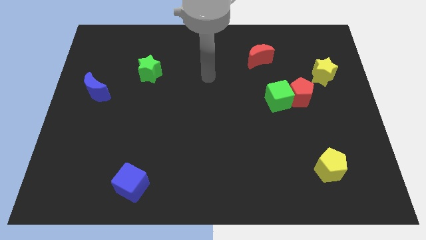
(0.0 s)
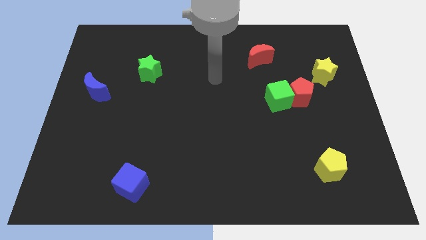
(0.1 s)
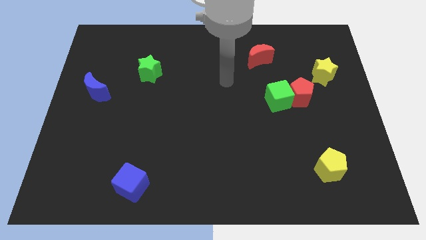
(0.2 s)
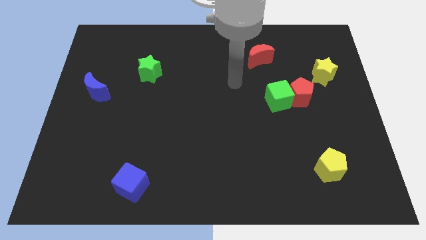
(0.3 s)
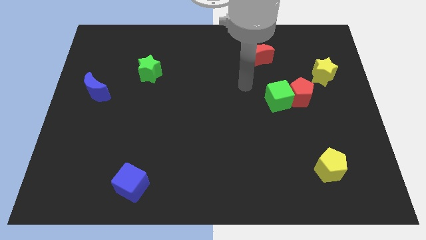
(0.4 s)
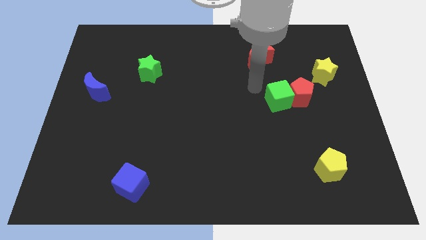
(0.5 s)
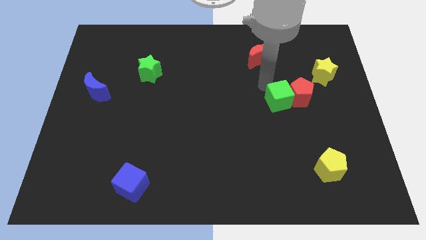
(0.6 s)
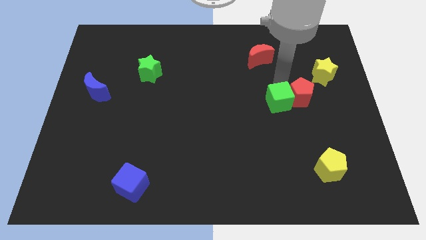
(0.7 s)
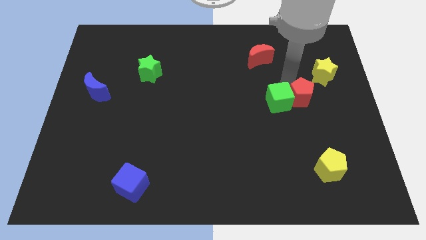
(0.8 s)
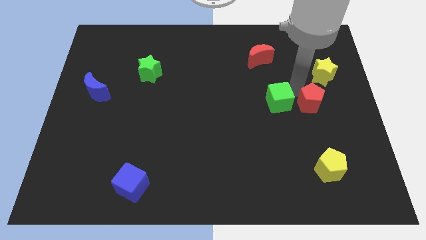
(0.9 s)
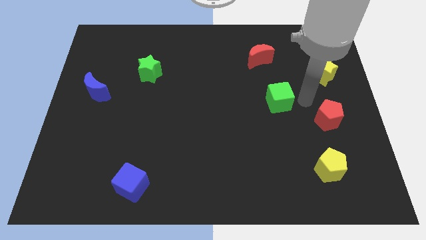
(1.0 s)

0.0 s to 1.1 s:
move the green cube away from the red pentagon

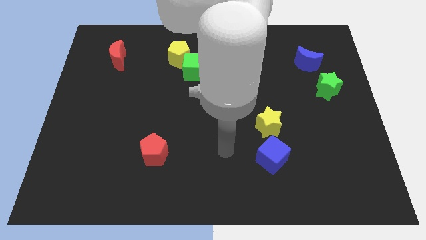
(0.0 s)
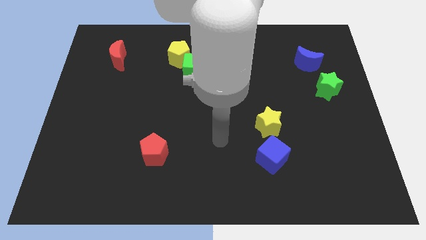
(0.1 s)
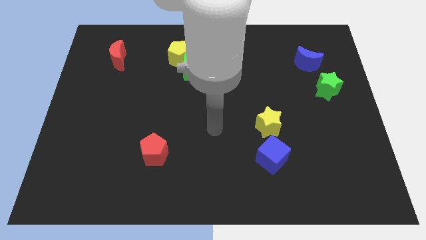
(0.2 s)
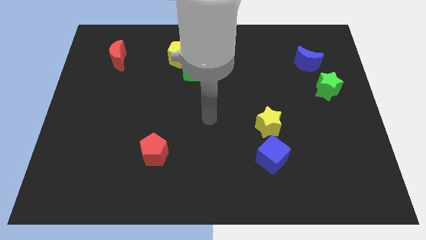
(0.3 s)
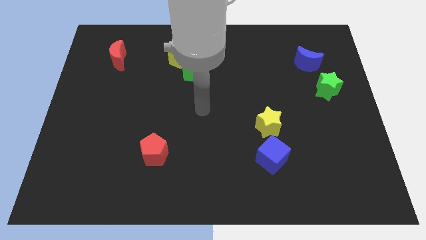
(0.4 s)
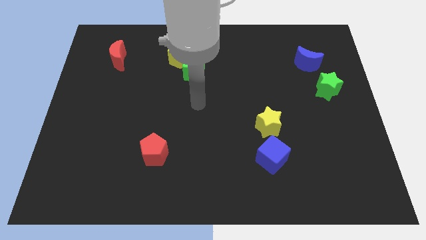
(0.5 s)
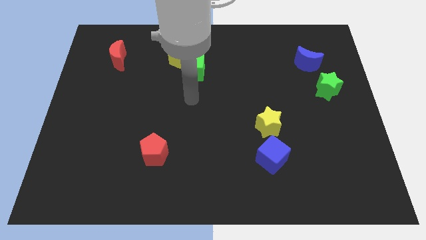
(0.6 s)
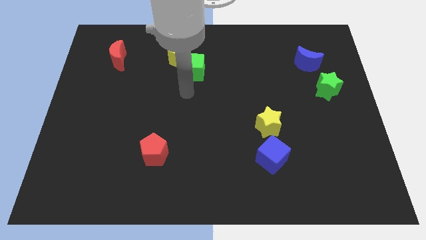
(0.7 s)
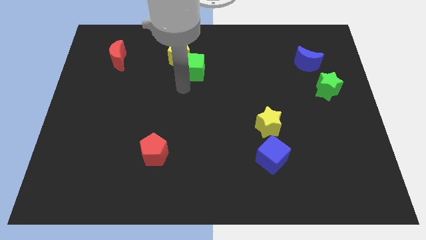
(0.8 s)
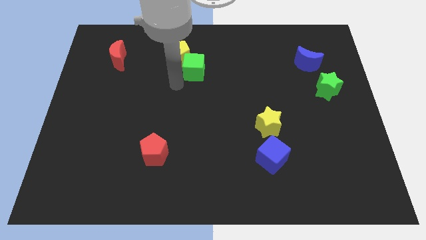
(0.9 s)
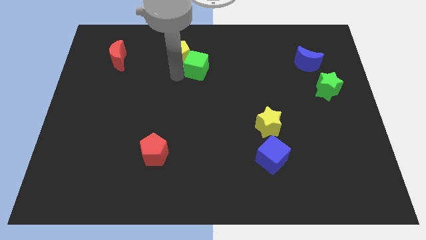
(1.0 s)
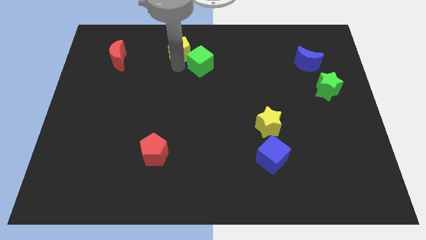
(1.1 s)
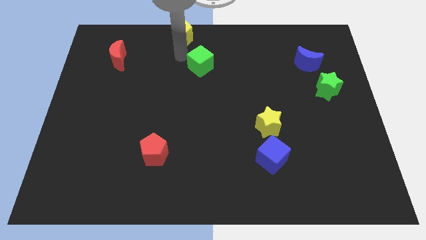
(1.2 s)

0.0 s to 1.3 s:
pull the green cube apart from the yellow pentagon

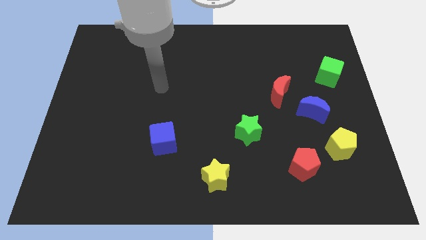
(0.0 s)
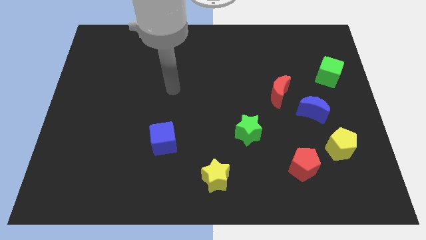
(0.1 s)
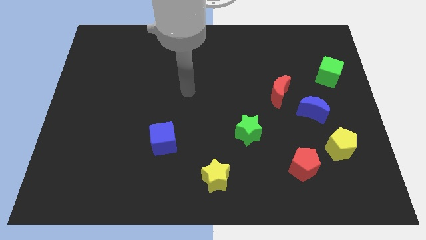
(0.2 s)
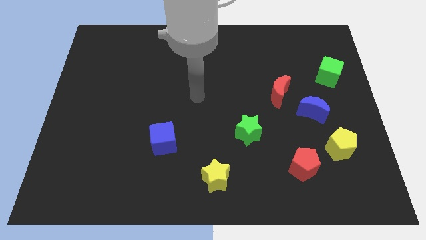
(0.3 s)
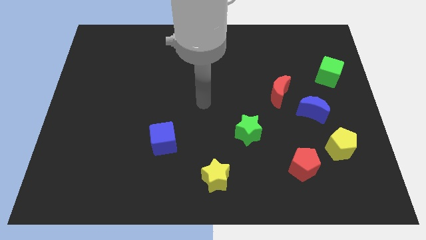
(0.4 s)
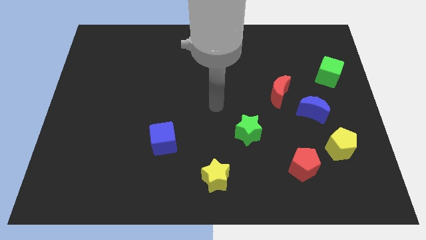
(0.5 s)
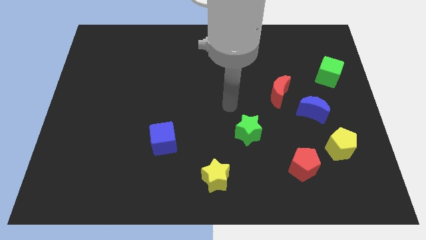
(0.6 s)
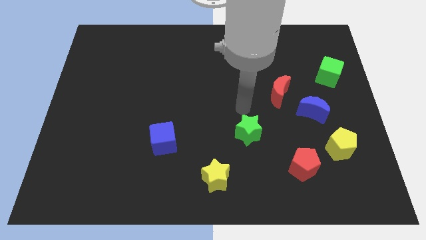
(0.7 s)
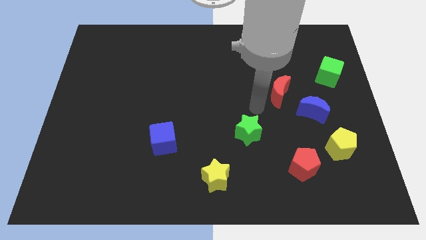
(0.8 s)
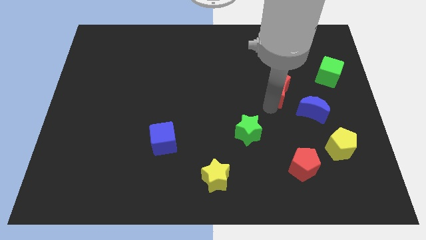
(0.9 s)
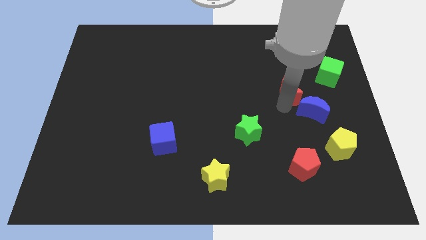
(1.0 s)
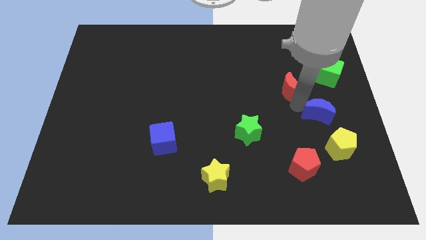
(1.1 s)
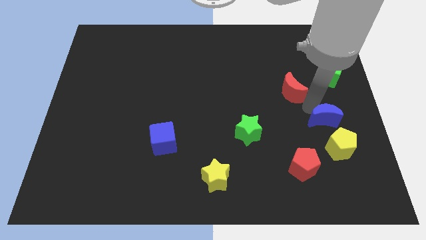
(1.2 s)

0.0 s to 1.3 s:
pull the red moon apart from the blue moon

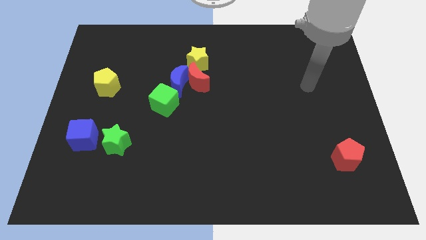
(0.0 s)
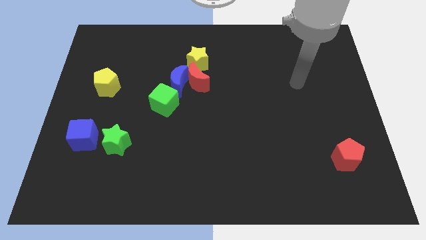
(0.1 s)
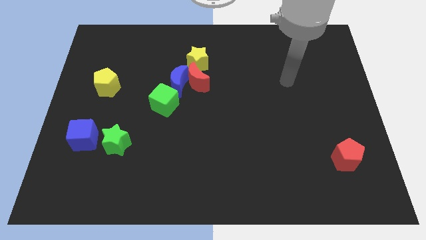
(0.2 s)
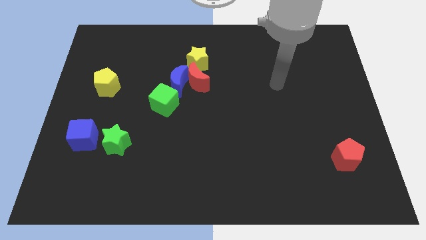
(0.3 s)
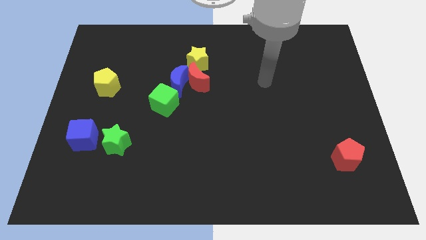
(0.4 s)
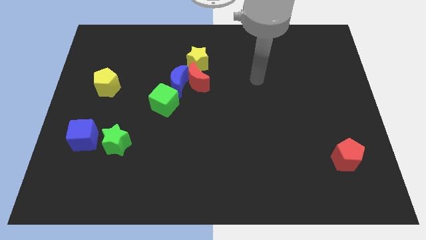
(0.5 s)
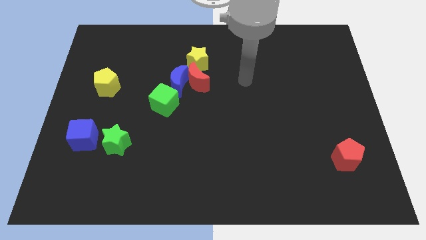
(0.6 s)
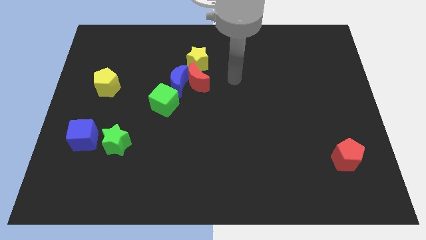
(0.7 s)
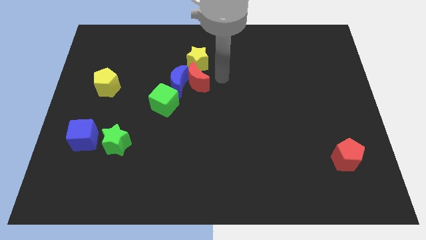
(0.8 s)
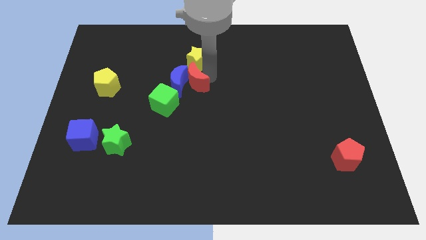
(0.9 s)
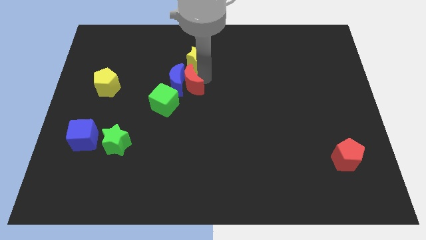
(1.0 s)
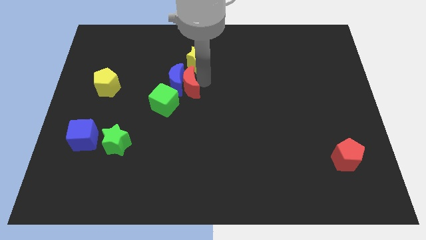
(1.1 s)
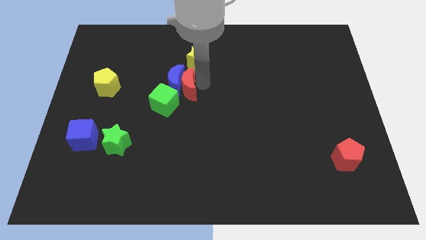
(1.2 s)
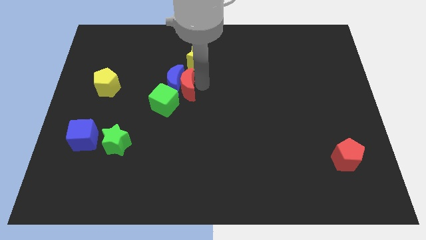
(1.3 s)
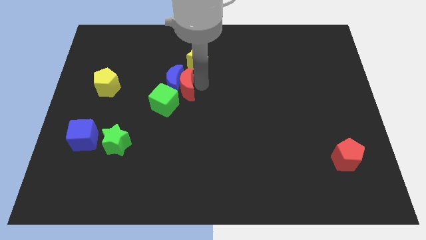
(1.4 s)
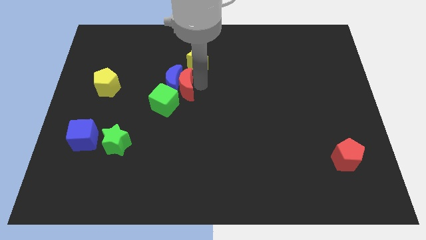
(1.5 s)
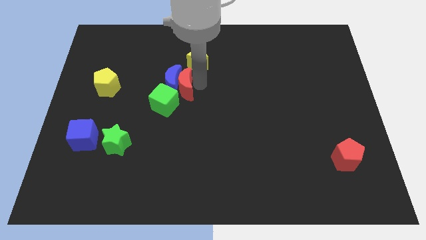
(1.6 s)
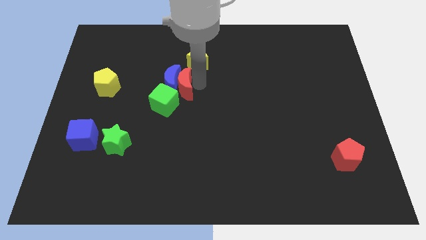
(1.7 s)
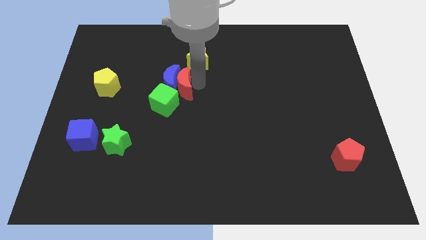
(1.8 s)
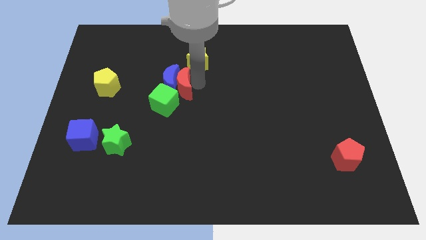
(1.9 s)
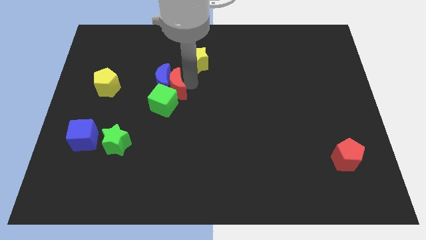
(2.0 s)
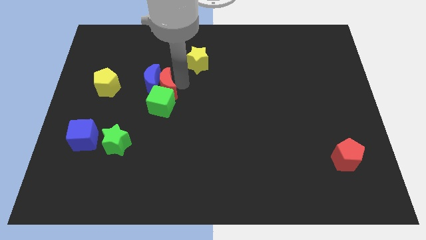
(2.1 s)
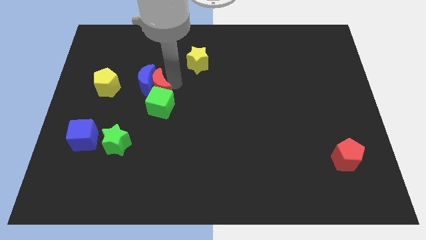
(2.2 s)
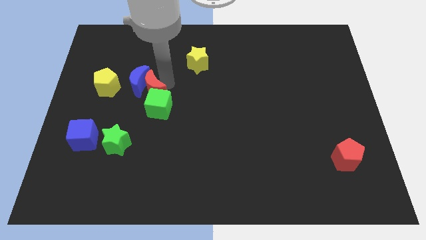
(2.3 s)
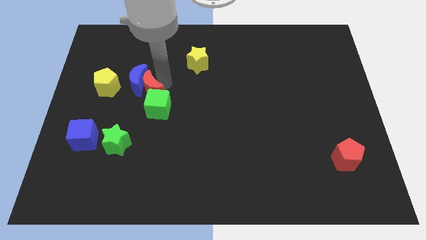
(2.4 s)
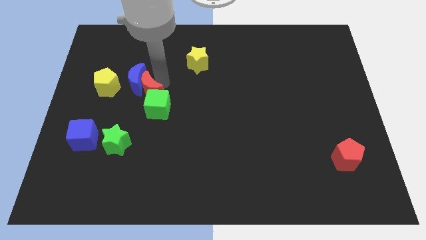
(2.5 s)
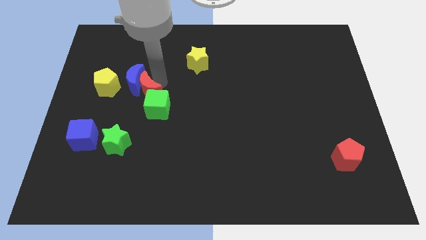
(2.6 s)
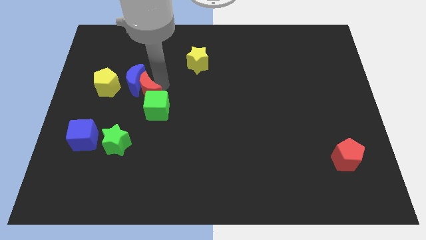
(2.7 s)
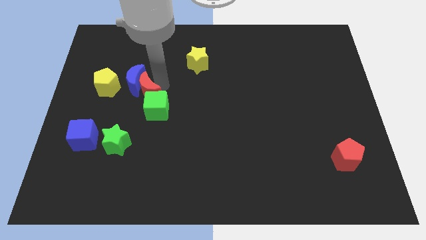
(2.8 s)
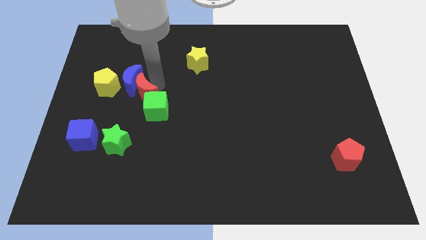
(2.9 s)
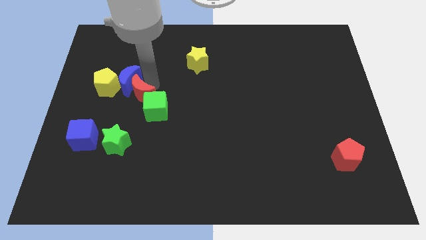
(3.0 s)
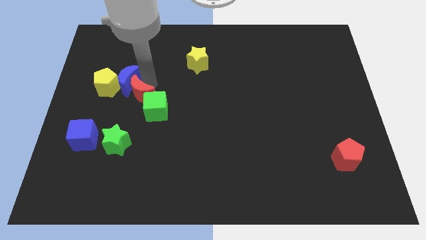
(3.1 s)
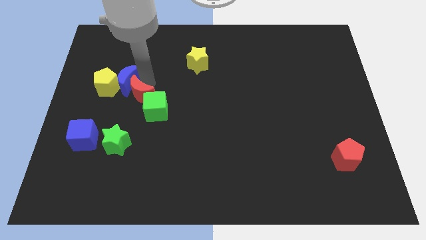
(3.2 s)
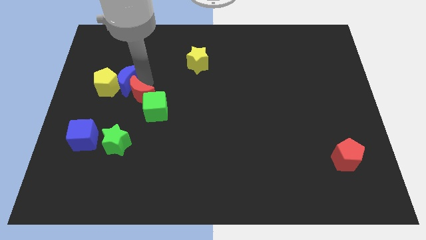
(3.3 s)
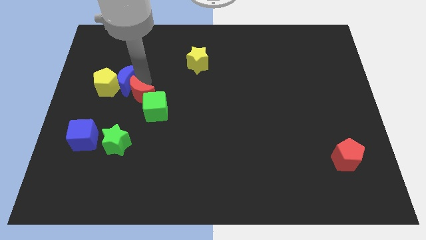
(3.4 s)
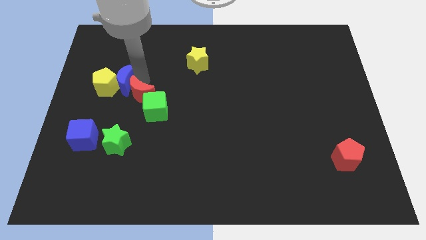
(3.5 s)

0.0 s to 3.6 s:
pull the blue moon apart from the red moon, green cube, and yellow star

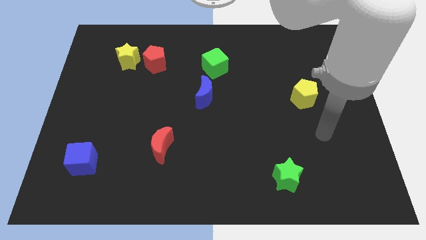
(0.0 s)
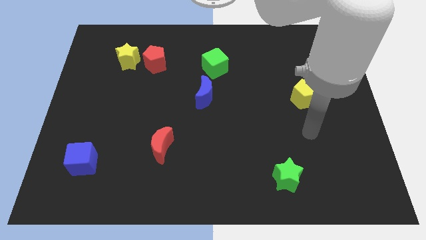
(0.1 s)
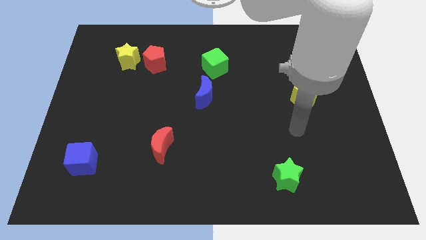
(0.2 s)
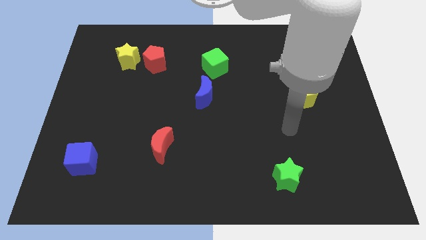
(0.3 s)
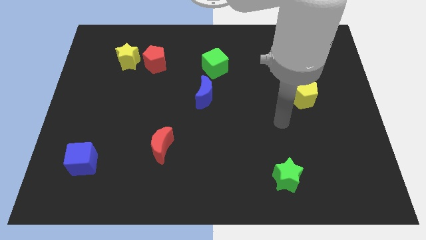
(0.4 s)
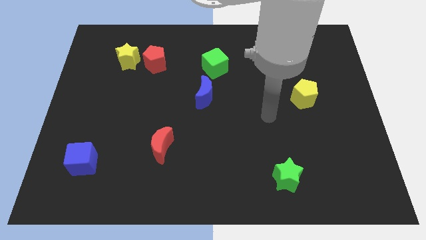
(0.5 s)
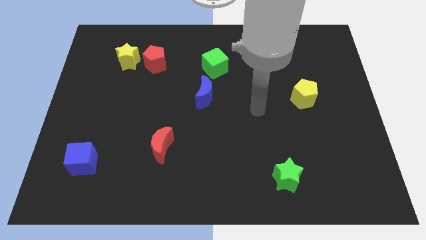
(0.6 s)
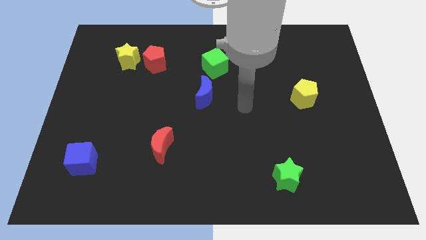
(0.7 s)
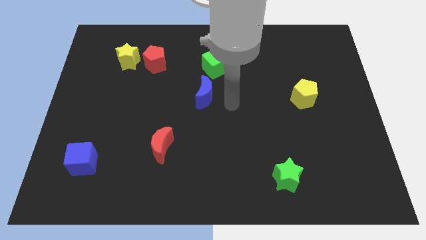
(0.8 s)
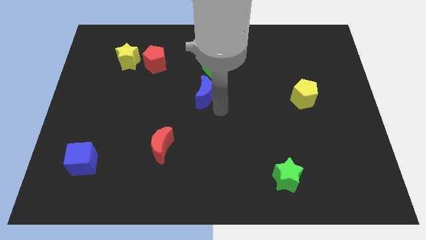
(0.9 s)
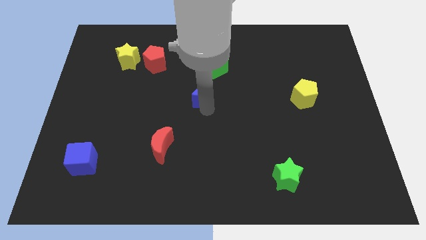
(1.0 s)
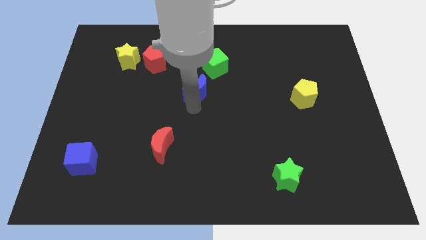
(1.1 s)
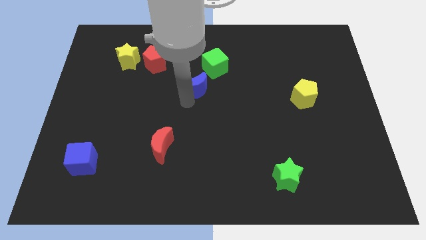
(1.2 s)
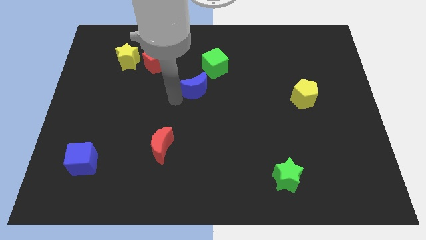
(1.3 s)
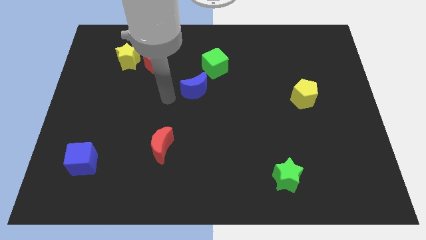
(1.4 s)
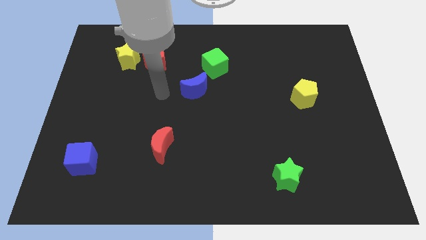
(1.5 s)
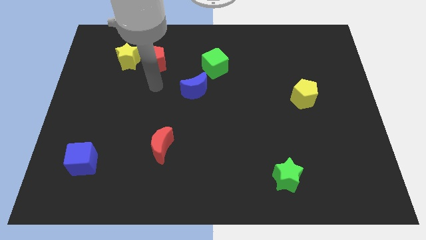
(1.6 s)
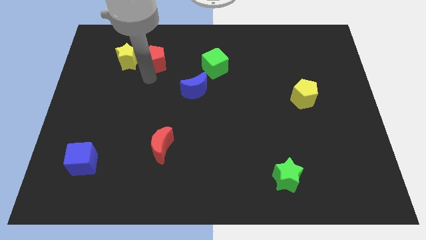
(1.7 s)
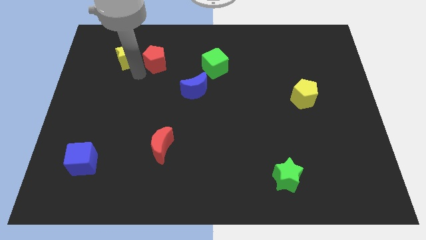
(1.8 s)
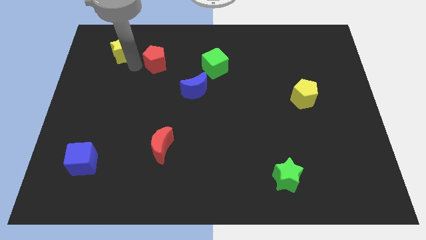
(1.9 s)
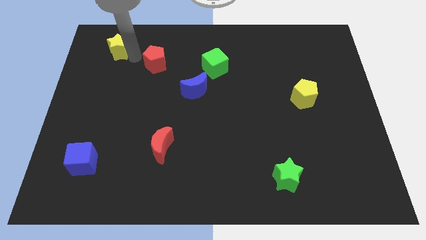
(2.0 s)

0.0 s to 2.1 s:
move the red pentagon away from the yellow star
